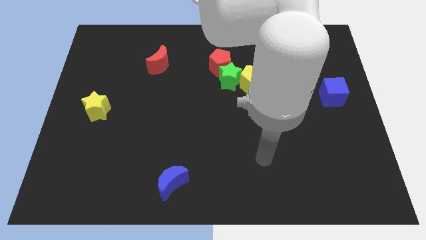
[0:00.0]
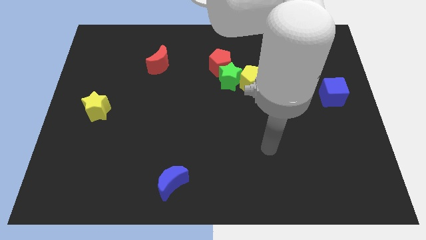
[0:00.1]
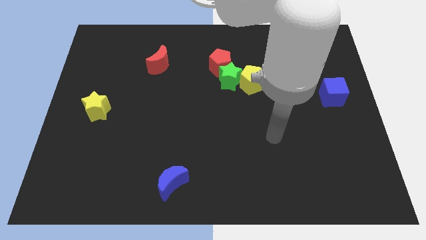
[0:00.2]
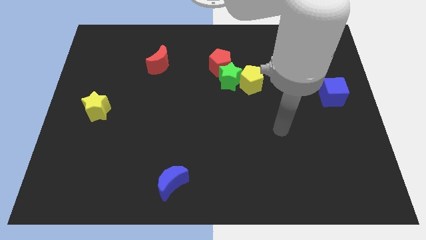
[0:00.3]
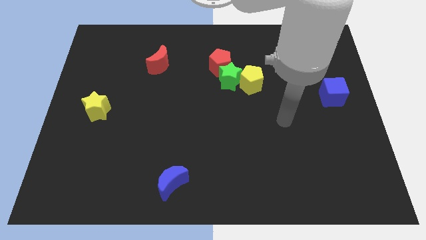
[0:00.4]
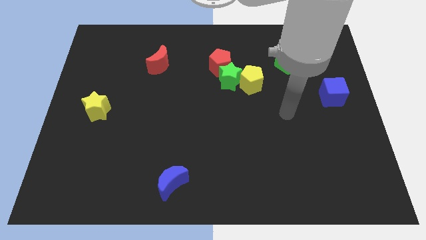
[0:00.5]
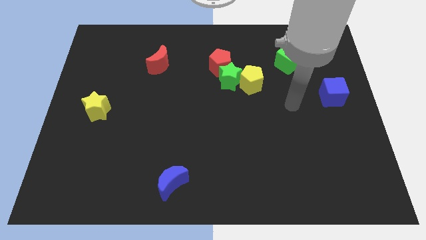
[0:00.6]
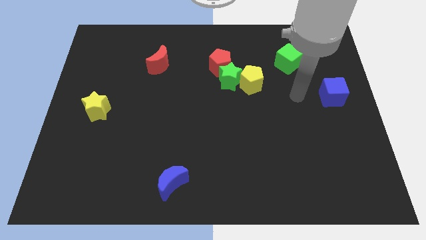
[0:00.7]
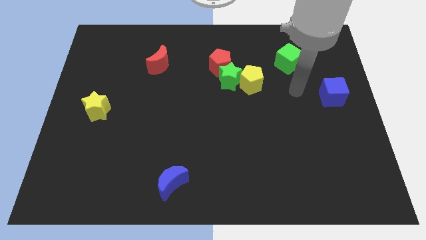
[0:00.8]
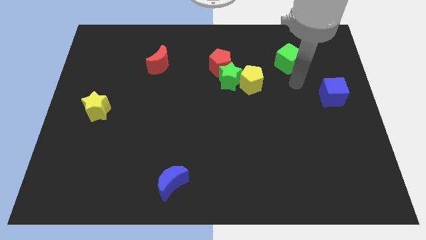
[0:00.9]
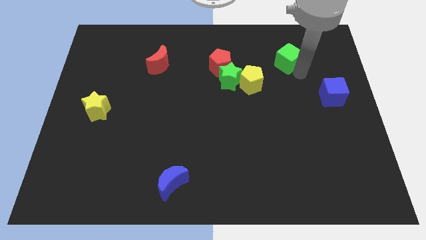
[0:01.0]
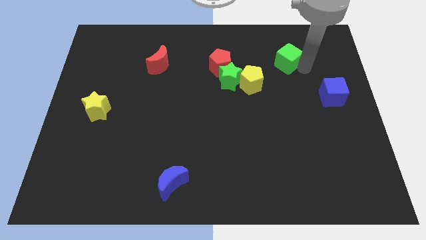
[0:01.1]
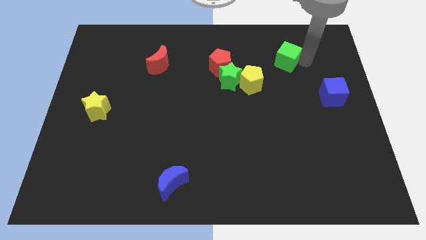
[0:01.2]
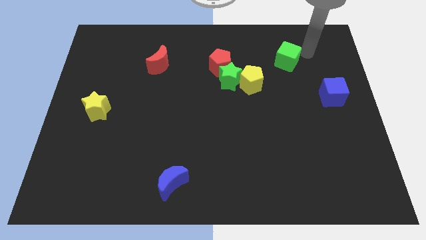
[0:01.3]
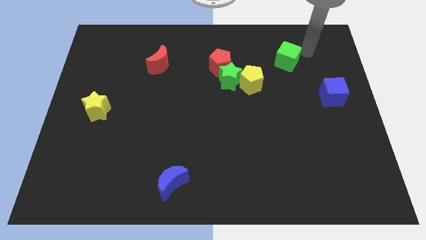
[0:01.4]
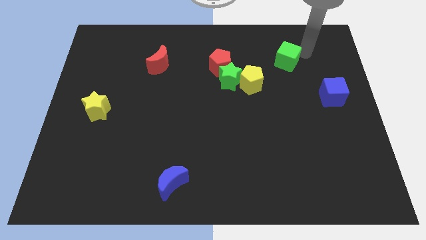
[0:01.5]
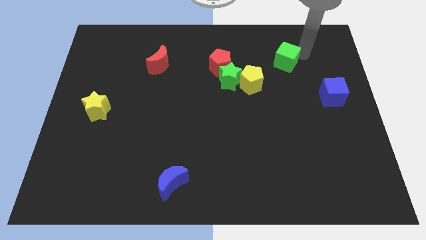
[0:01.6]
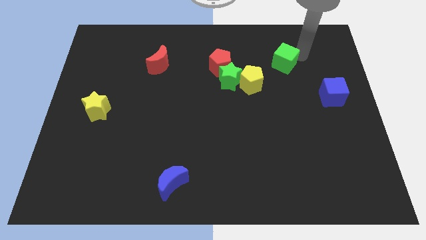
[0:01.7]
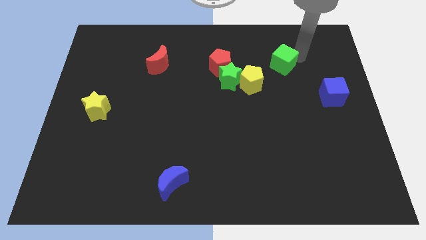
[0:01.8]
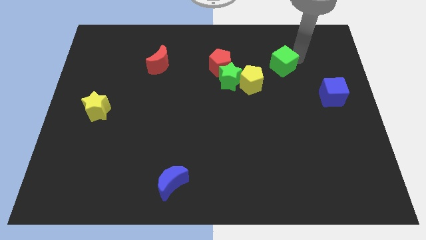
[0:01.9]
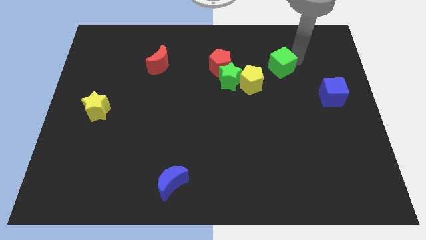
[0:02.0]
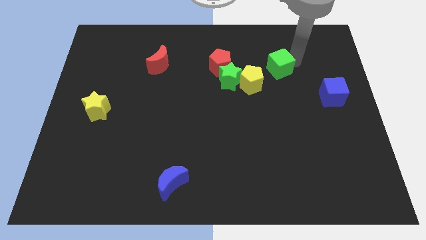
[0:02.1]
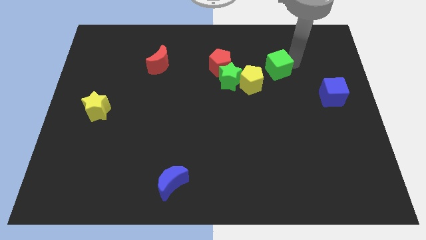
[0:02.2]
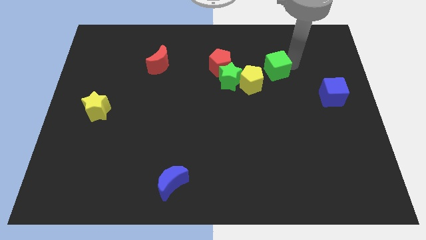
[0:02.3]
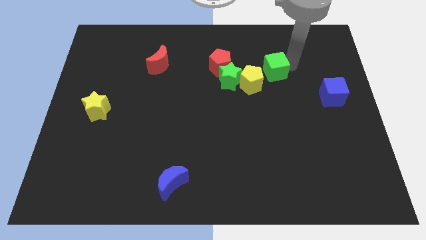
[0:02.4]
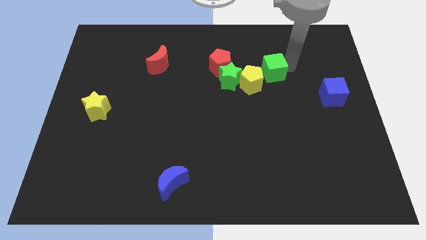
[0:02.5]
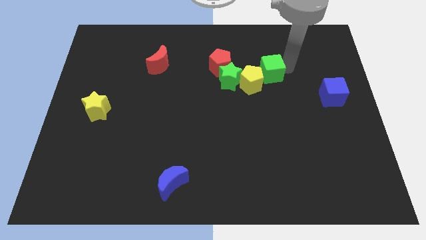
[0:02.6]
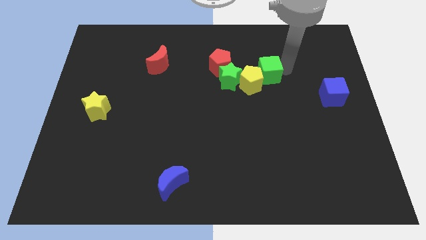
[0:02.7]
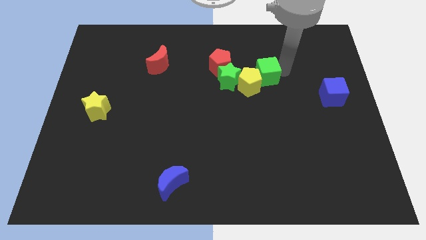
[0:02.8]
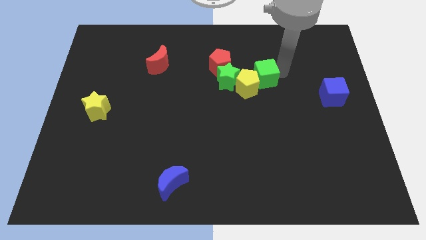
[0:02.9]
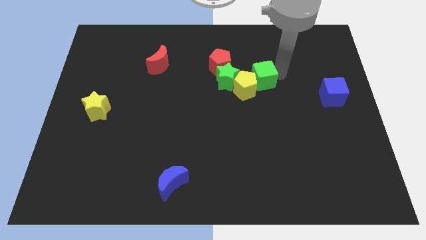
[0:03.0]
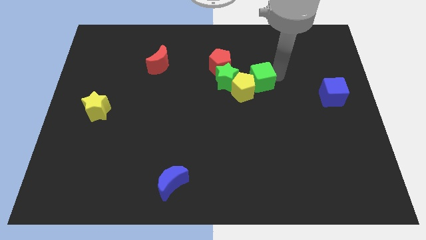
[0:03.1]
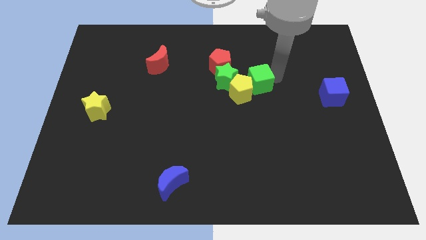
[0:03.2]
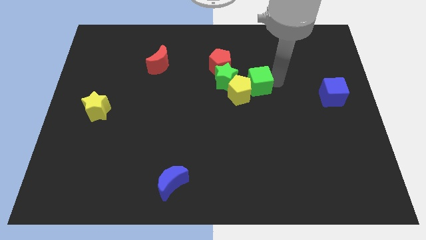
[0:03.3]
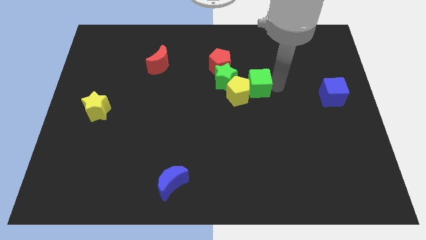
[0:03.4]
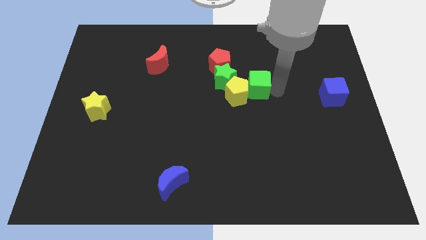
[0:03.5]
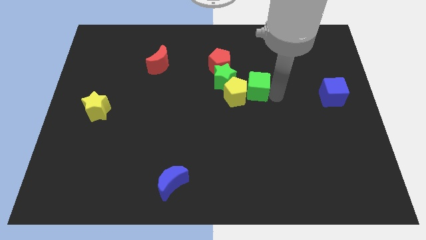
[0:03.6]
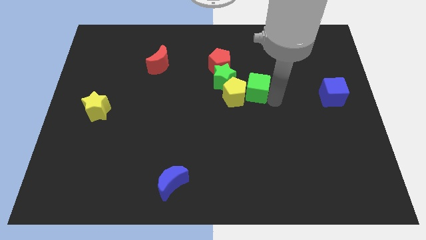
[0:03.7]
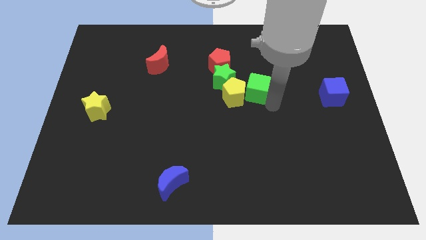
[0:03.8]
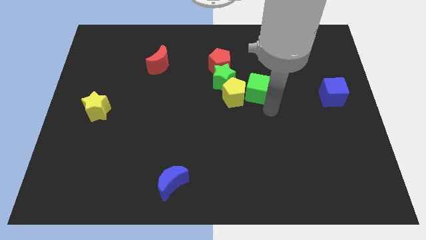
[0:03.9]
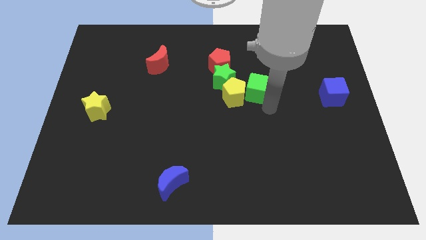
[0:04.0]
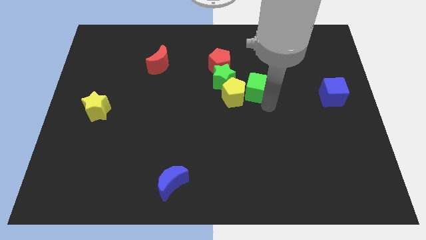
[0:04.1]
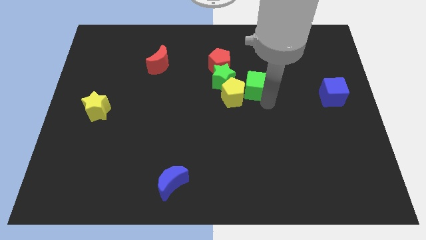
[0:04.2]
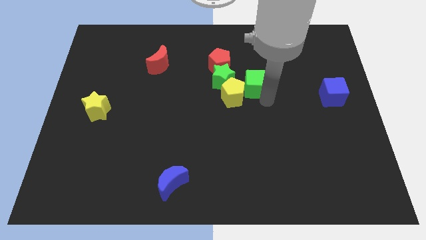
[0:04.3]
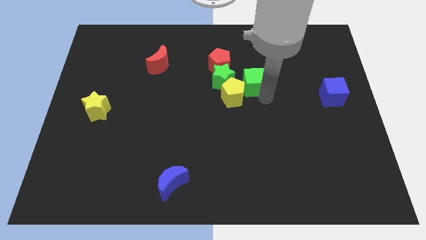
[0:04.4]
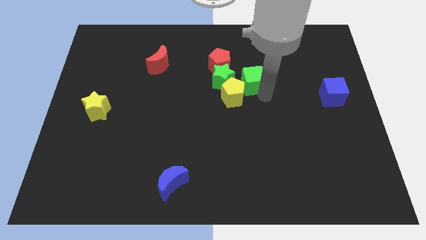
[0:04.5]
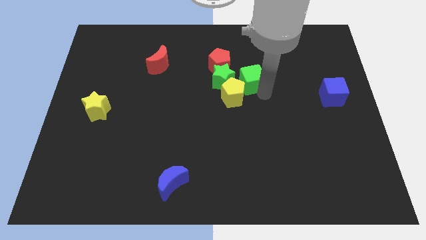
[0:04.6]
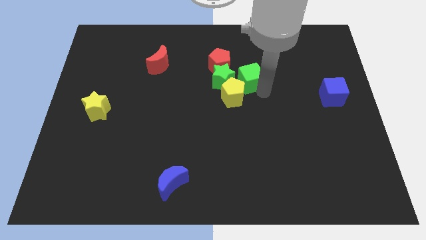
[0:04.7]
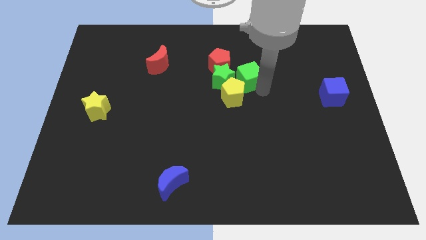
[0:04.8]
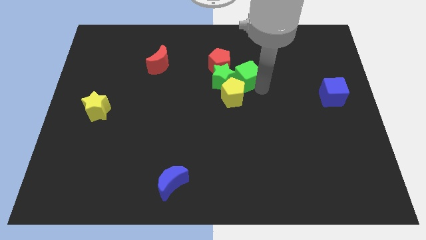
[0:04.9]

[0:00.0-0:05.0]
put the green cube to the green star

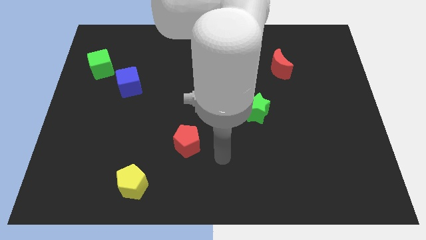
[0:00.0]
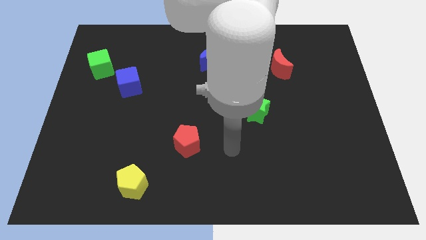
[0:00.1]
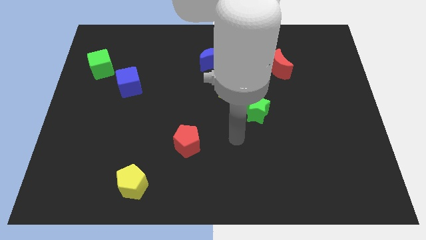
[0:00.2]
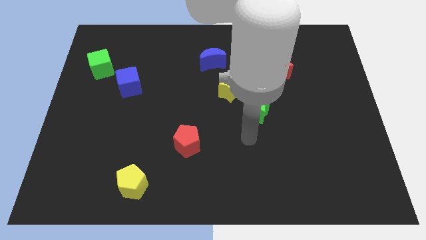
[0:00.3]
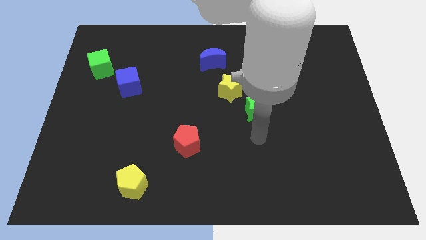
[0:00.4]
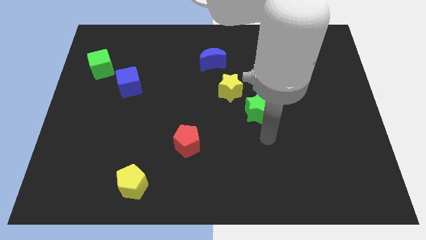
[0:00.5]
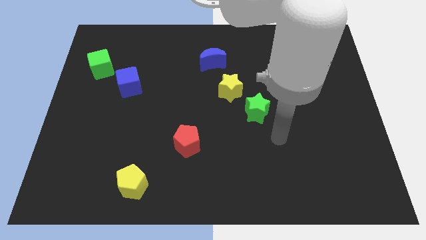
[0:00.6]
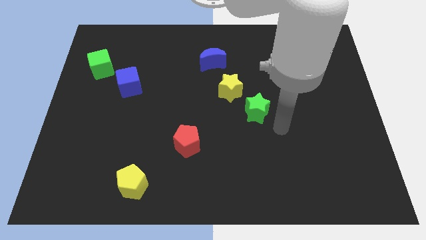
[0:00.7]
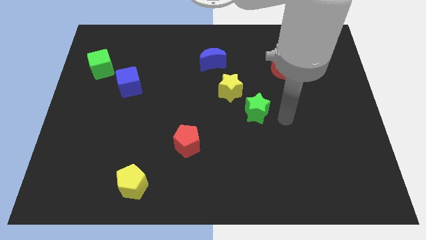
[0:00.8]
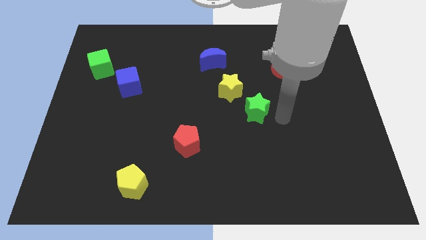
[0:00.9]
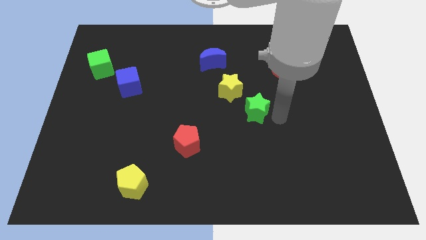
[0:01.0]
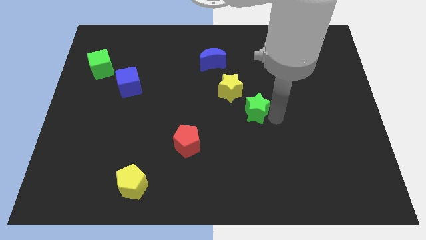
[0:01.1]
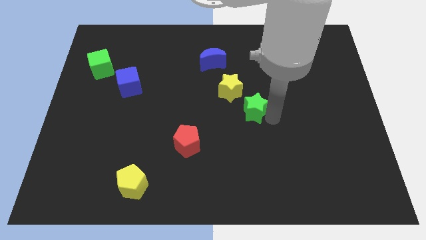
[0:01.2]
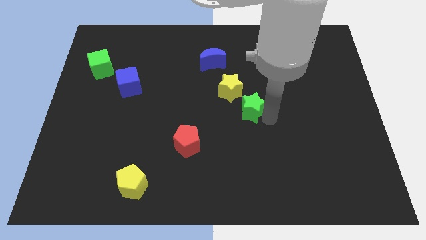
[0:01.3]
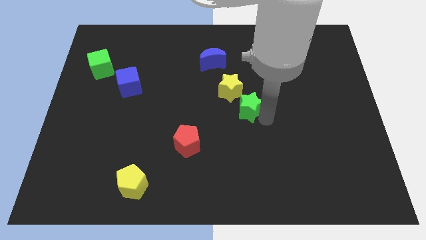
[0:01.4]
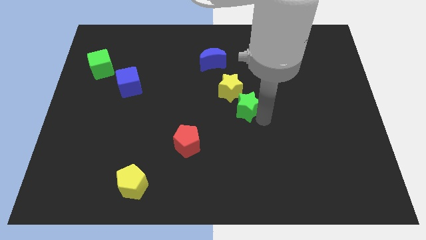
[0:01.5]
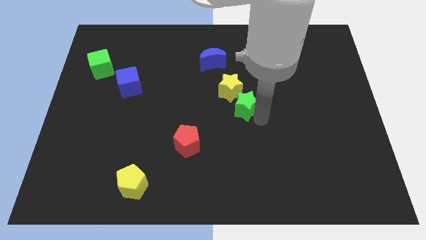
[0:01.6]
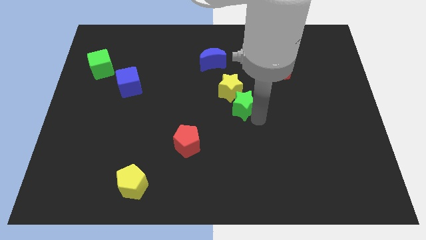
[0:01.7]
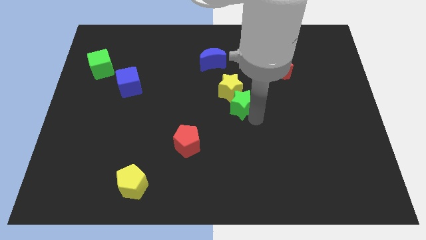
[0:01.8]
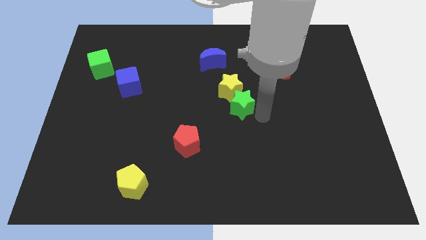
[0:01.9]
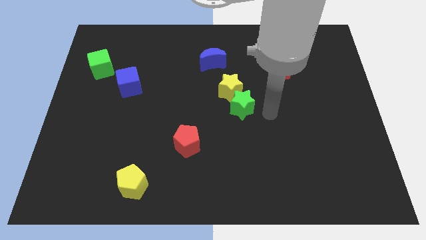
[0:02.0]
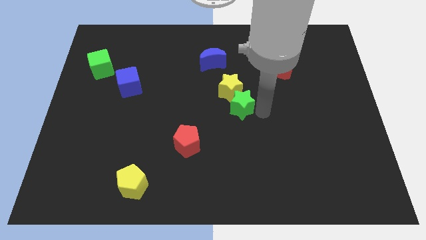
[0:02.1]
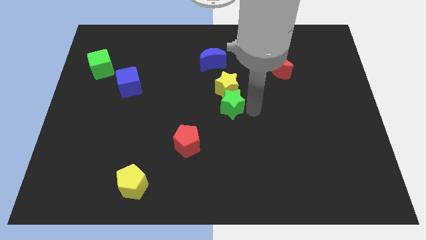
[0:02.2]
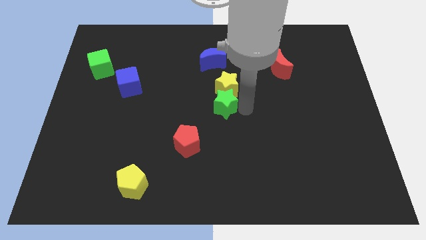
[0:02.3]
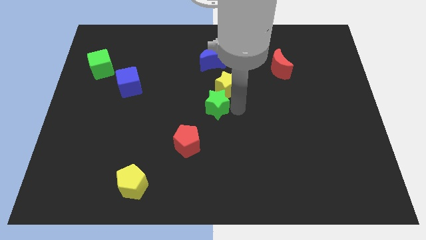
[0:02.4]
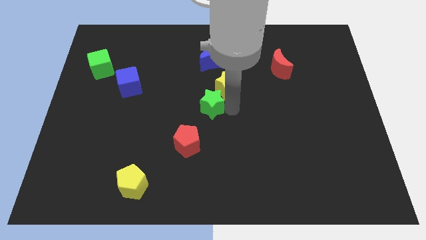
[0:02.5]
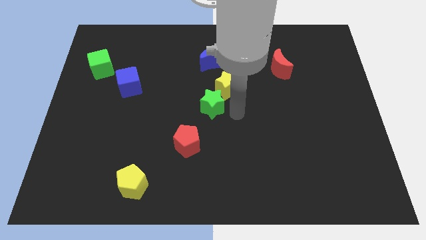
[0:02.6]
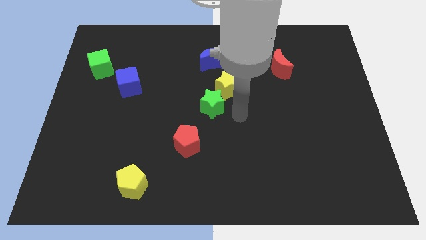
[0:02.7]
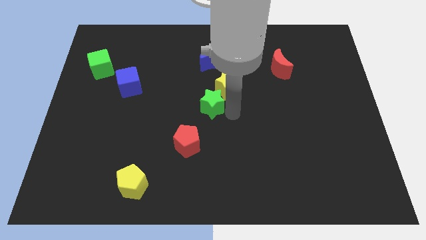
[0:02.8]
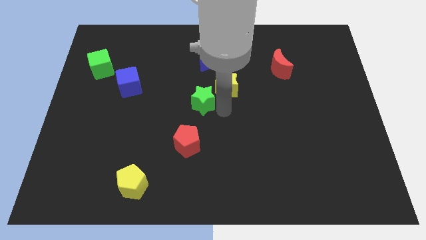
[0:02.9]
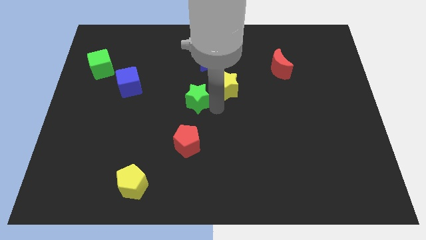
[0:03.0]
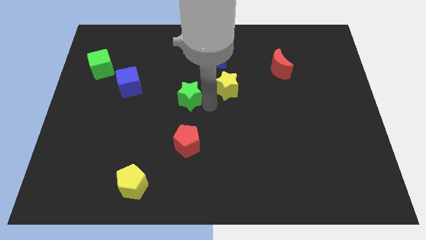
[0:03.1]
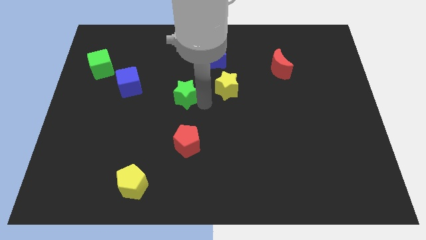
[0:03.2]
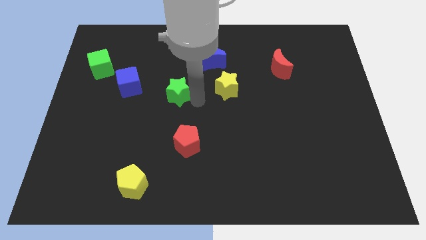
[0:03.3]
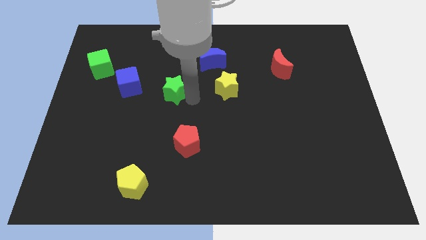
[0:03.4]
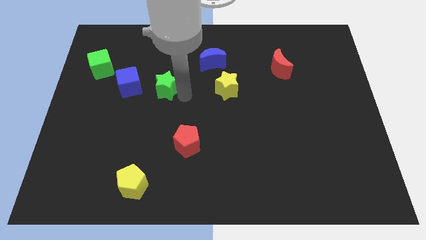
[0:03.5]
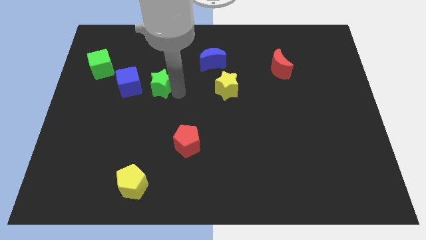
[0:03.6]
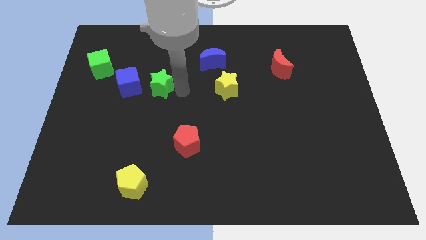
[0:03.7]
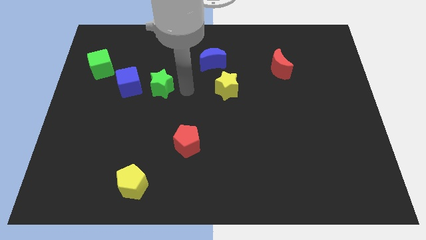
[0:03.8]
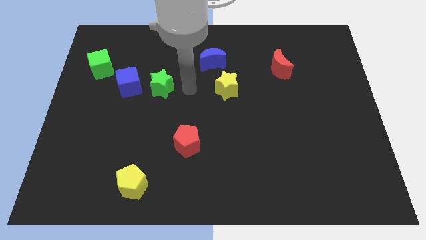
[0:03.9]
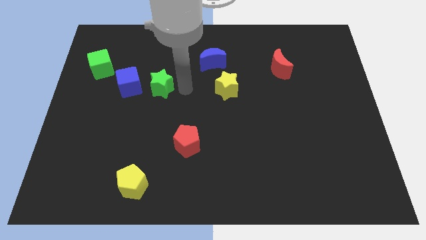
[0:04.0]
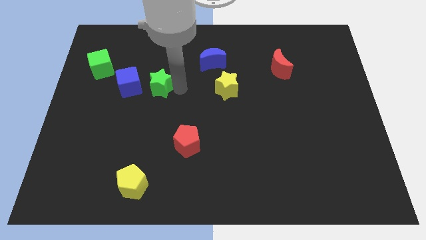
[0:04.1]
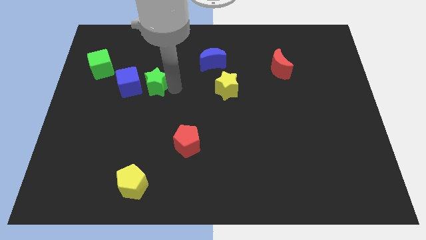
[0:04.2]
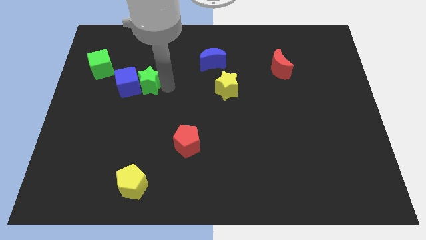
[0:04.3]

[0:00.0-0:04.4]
push the green star towards the blue cube
